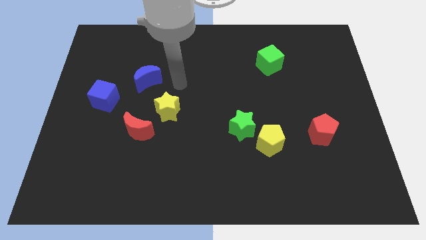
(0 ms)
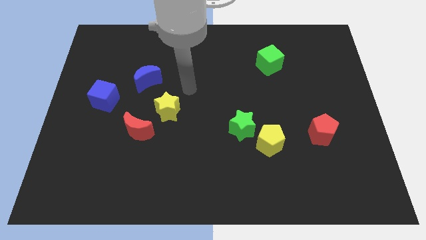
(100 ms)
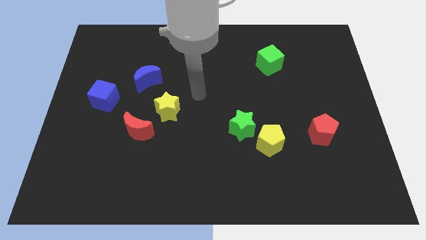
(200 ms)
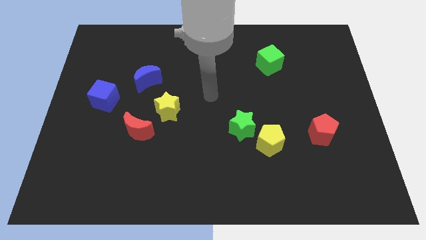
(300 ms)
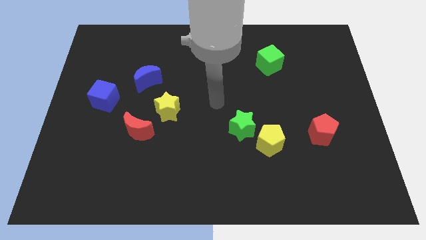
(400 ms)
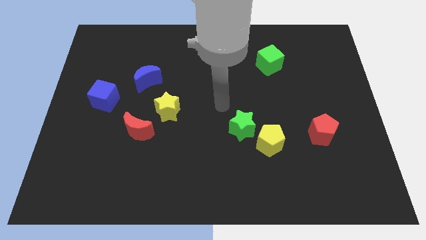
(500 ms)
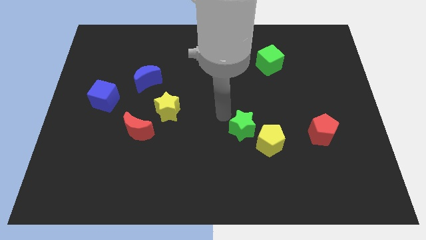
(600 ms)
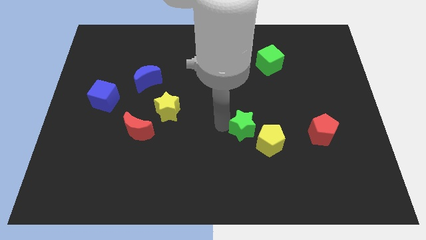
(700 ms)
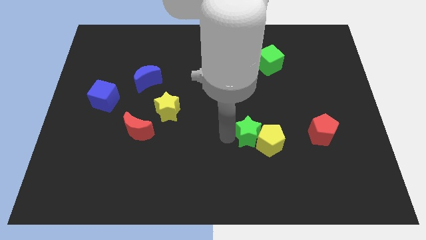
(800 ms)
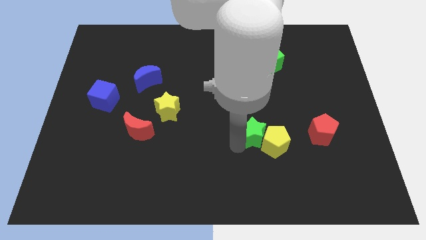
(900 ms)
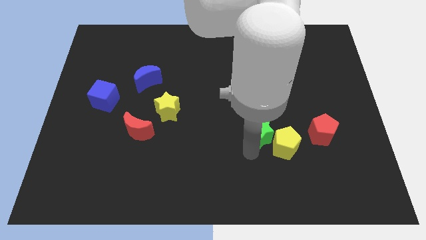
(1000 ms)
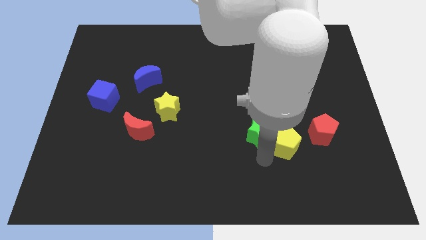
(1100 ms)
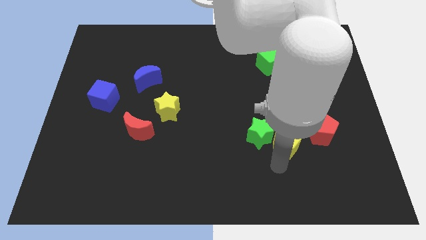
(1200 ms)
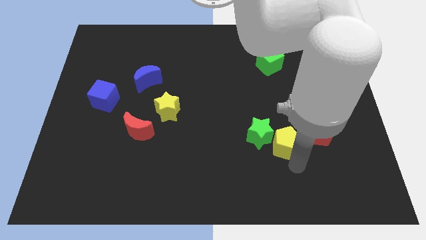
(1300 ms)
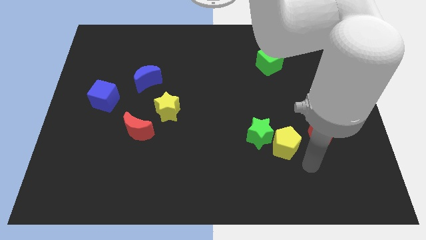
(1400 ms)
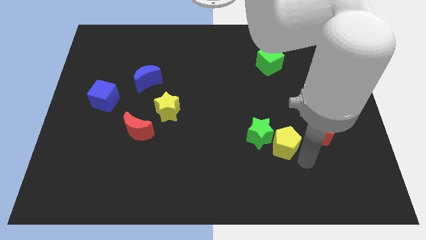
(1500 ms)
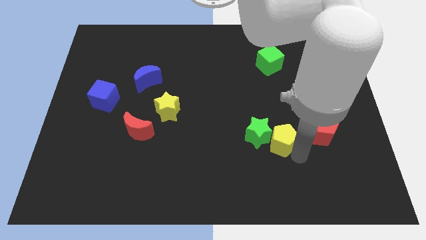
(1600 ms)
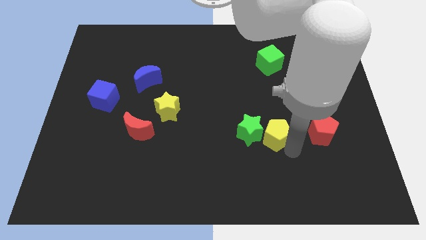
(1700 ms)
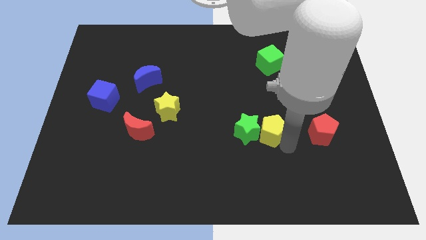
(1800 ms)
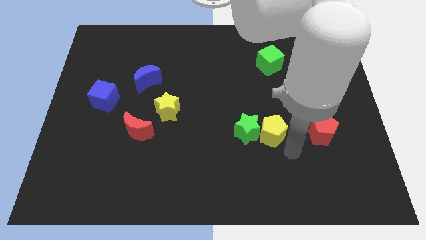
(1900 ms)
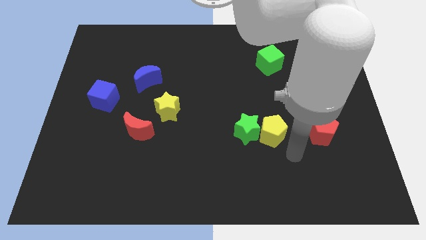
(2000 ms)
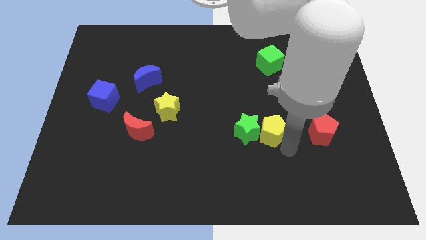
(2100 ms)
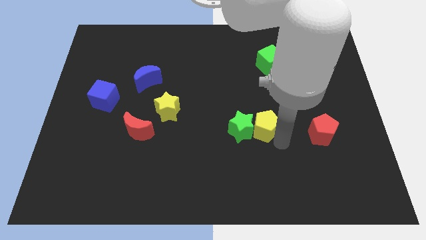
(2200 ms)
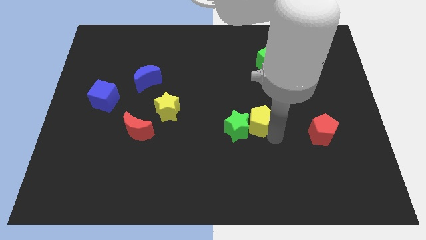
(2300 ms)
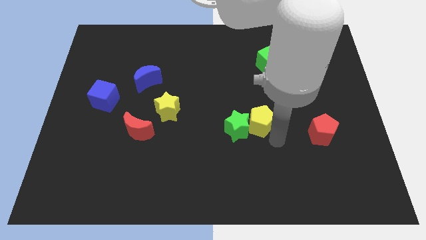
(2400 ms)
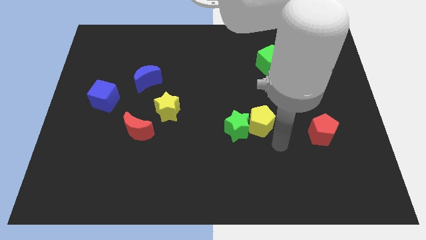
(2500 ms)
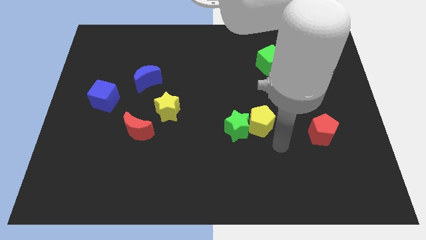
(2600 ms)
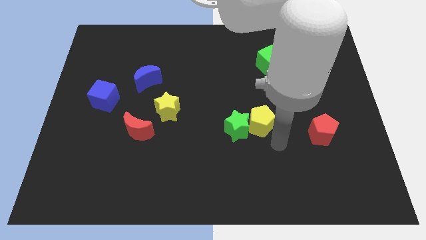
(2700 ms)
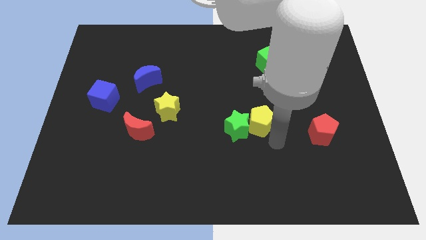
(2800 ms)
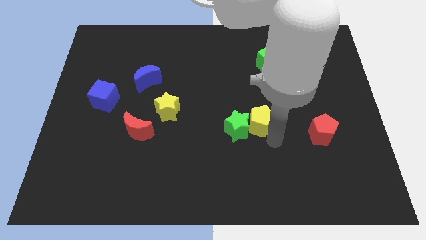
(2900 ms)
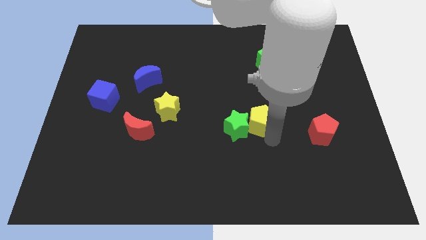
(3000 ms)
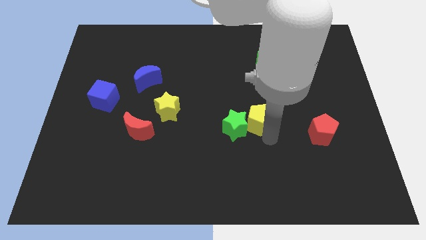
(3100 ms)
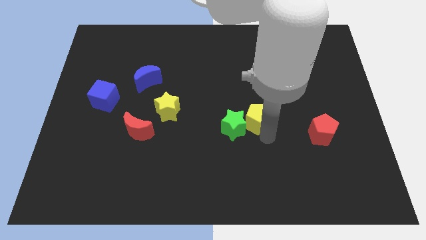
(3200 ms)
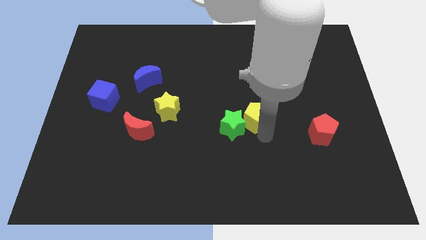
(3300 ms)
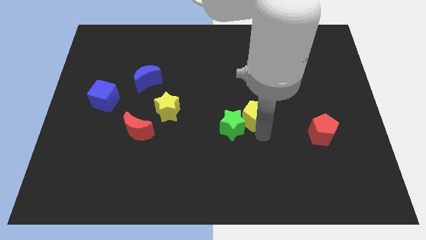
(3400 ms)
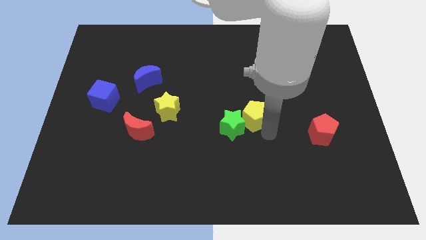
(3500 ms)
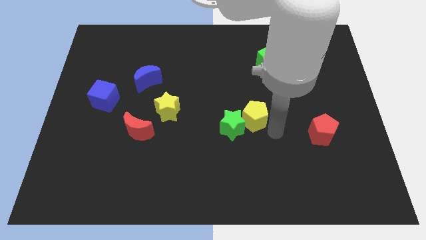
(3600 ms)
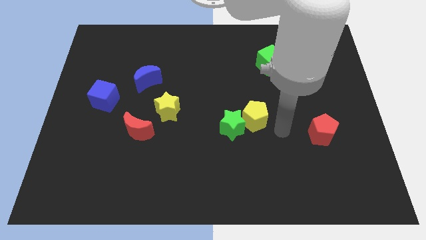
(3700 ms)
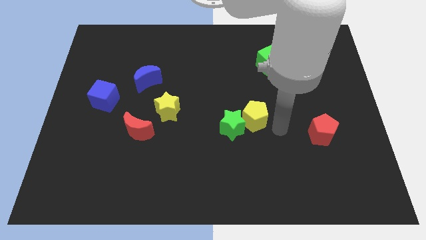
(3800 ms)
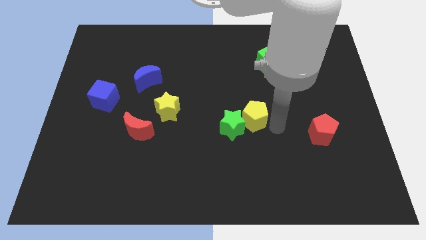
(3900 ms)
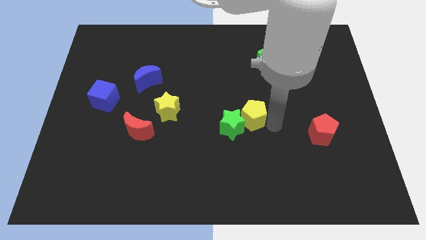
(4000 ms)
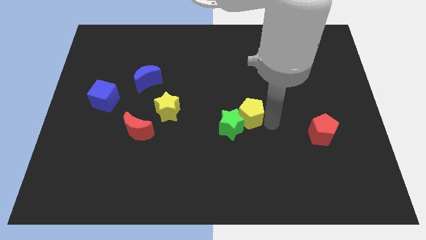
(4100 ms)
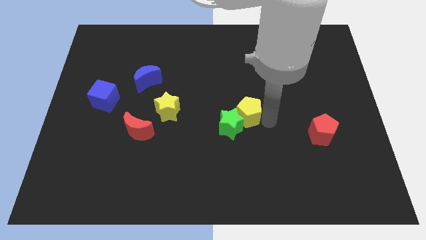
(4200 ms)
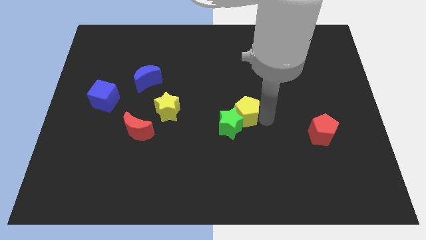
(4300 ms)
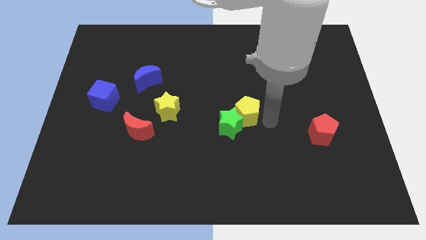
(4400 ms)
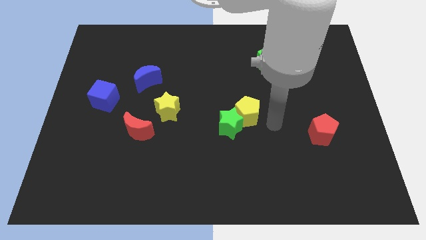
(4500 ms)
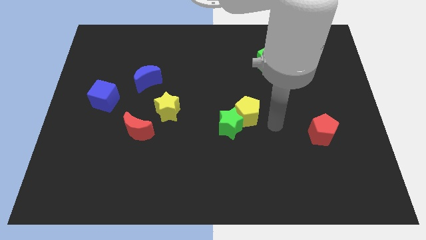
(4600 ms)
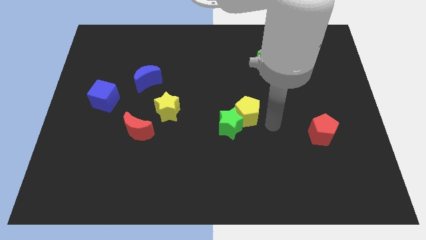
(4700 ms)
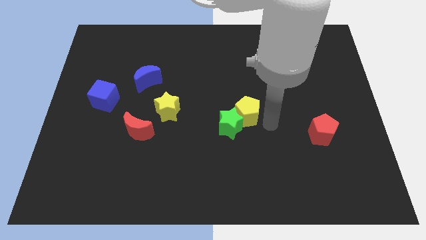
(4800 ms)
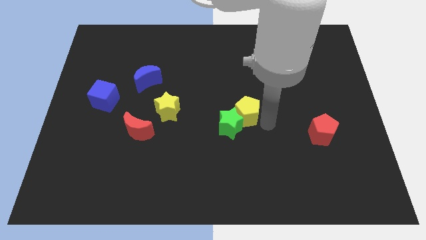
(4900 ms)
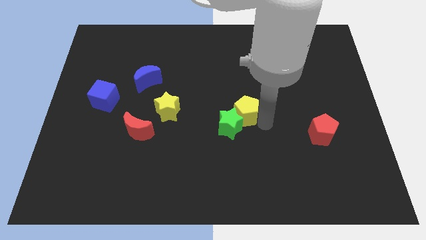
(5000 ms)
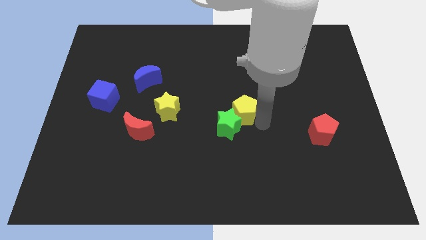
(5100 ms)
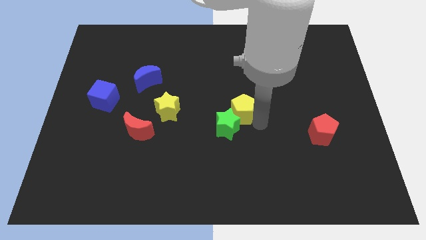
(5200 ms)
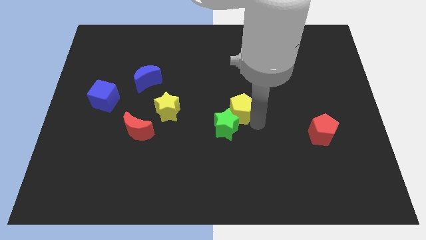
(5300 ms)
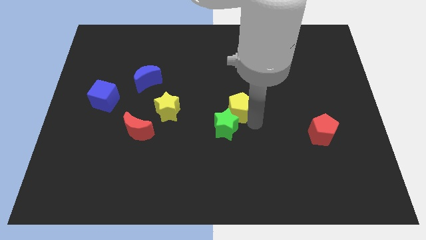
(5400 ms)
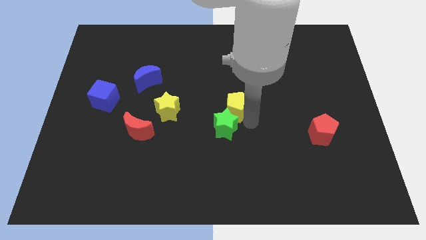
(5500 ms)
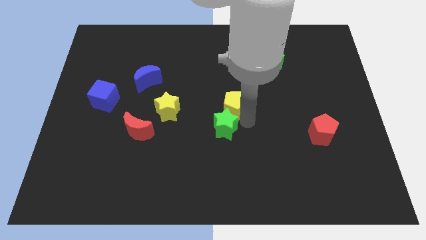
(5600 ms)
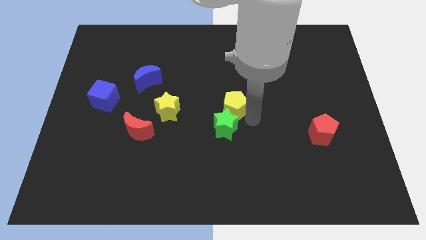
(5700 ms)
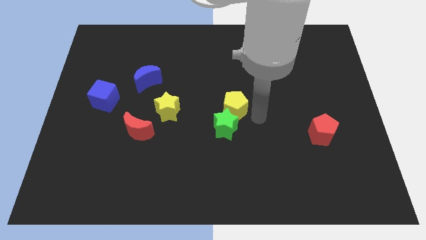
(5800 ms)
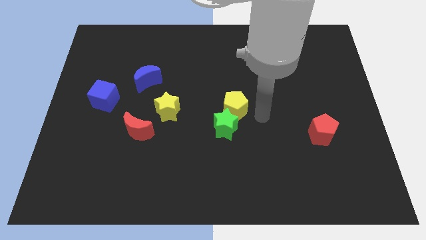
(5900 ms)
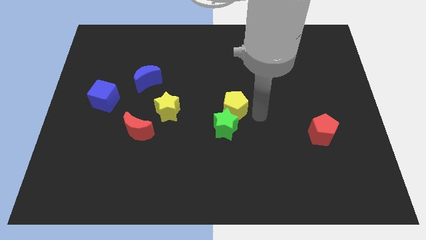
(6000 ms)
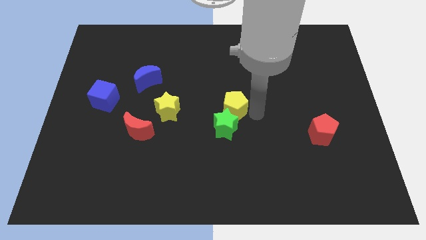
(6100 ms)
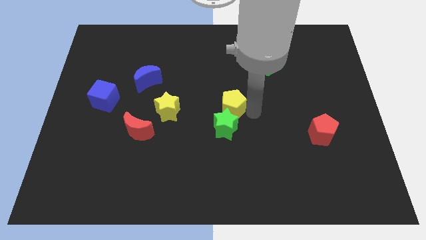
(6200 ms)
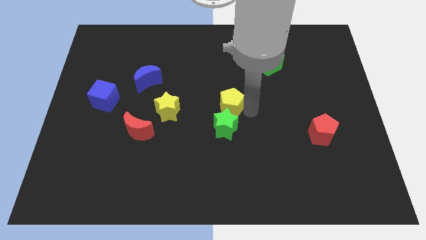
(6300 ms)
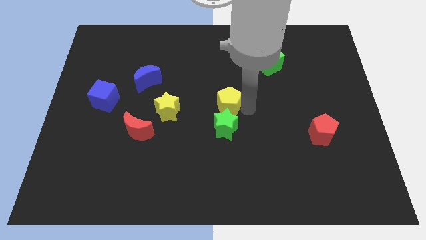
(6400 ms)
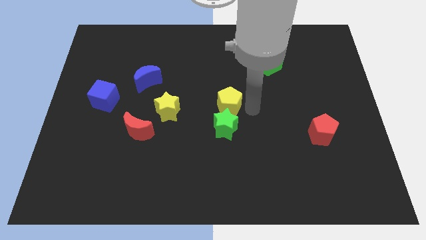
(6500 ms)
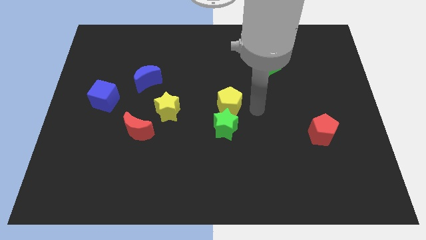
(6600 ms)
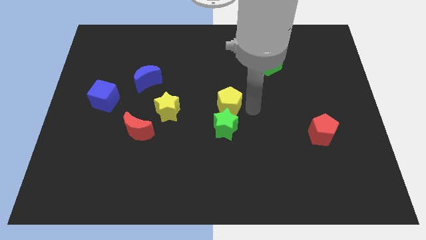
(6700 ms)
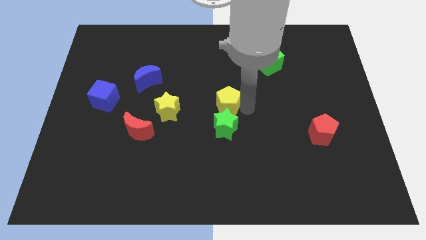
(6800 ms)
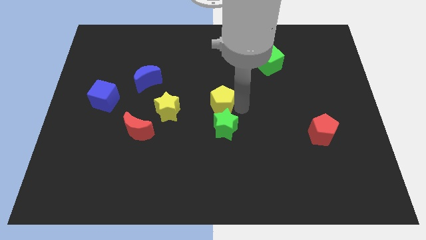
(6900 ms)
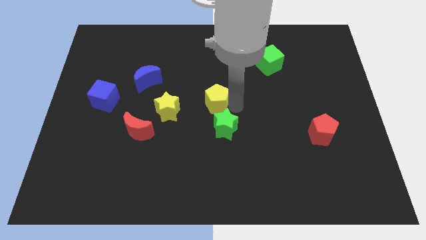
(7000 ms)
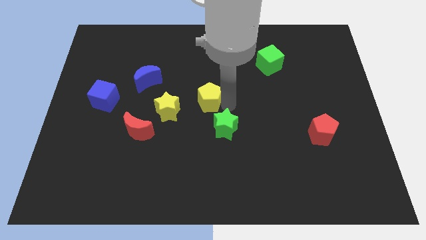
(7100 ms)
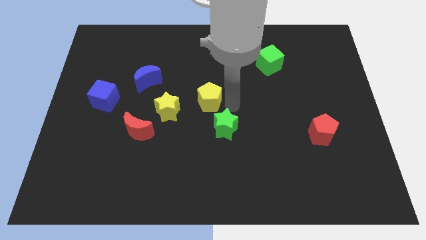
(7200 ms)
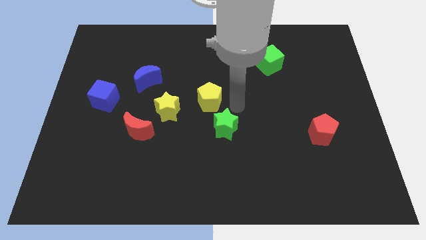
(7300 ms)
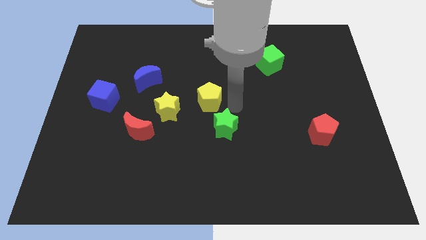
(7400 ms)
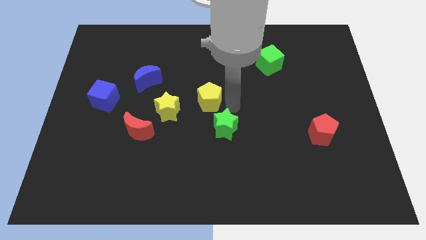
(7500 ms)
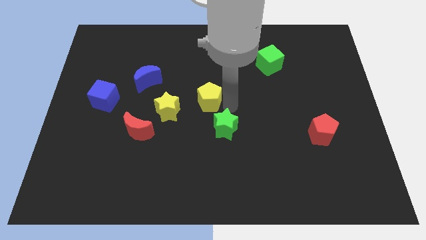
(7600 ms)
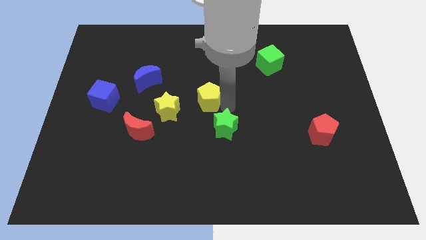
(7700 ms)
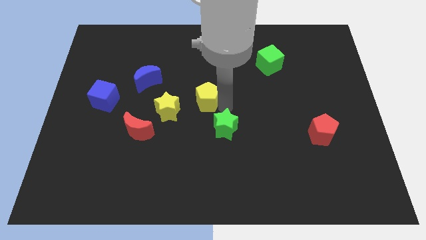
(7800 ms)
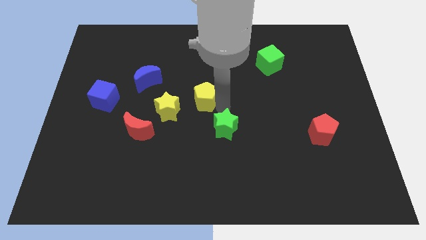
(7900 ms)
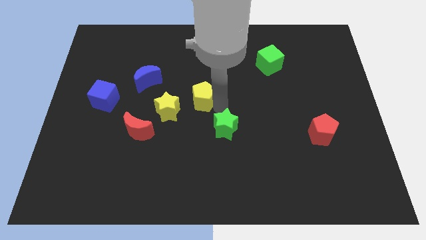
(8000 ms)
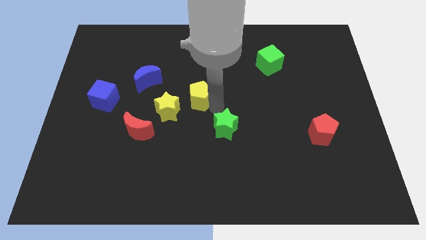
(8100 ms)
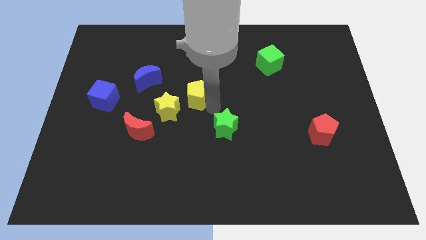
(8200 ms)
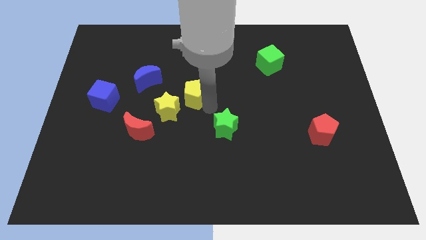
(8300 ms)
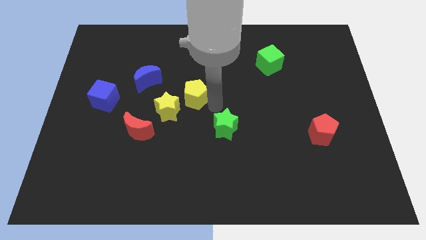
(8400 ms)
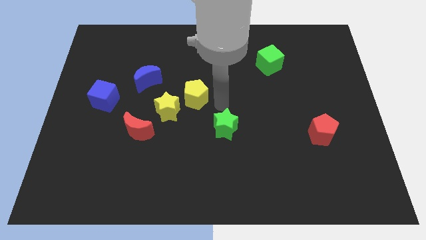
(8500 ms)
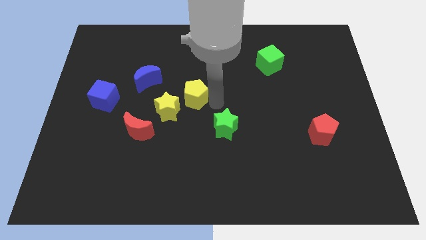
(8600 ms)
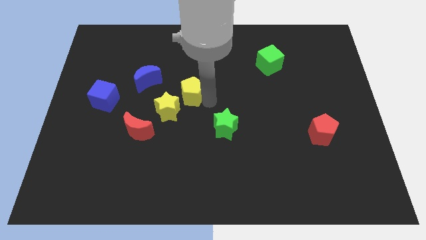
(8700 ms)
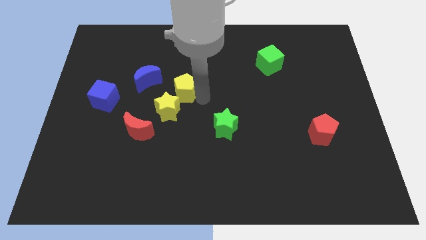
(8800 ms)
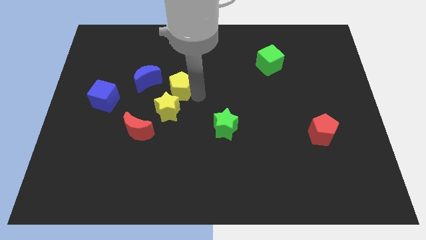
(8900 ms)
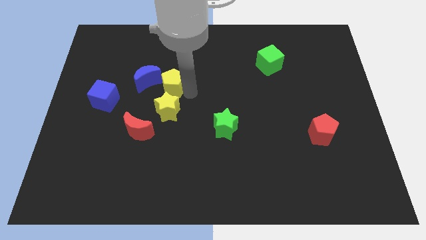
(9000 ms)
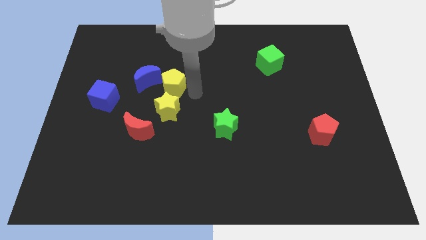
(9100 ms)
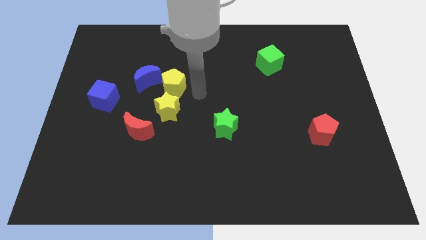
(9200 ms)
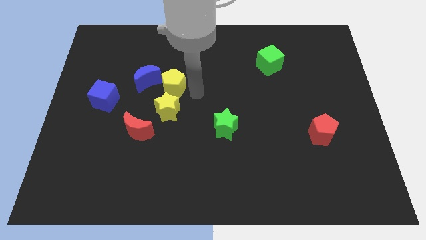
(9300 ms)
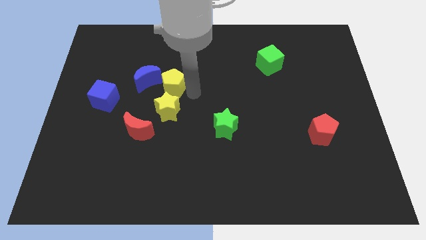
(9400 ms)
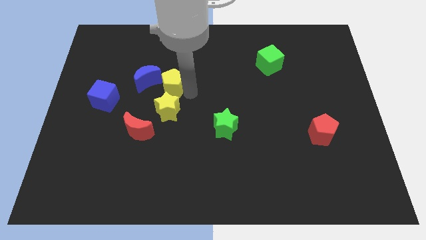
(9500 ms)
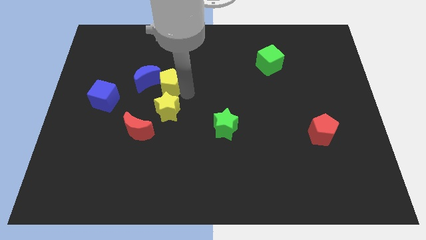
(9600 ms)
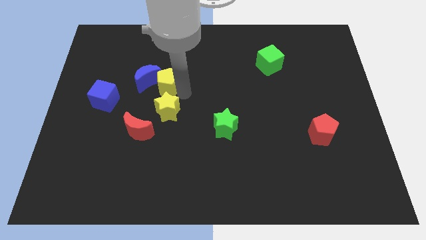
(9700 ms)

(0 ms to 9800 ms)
push the yellow pentagon towards the blue moon
